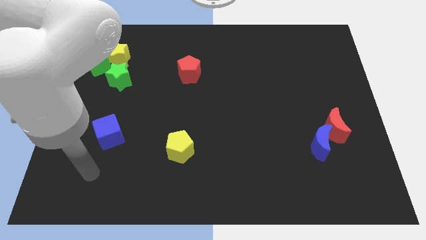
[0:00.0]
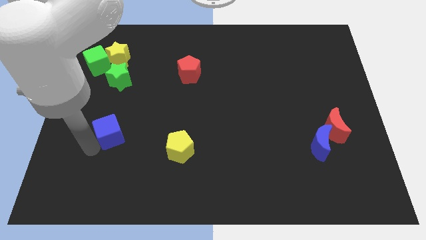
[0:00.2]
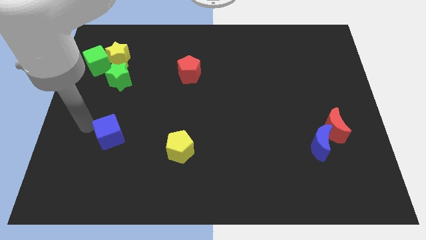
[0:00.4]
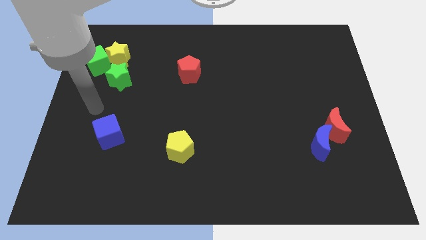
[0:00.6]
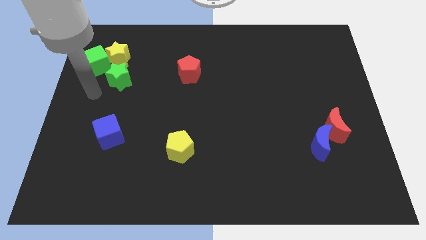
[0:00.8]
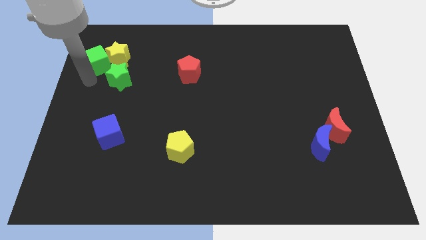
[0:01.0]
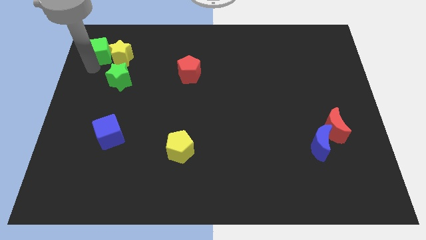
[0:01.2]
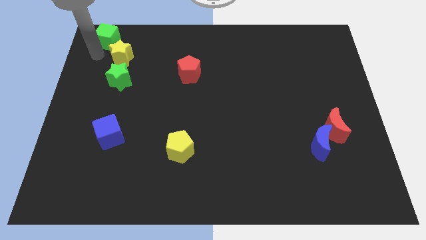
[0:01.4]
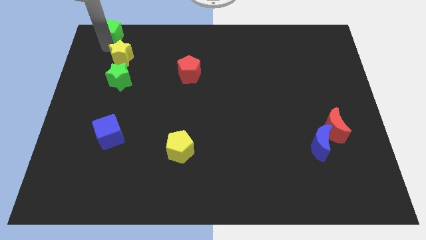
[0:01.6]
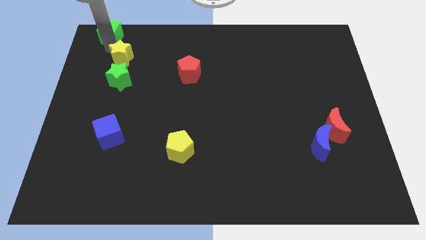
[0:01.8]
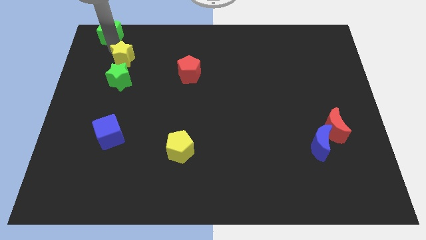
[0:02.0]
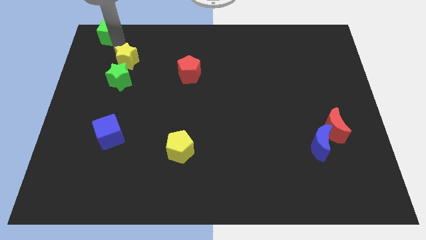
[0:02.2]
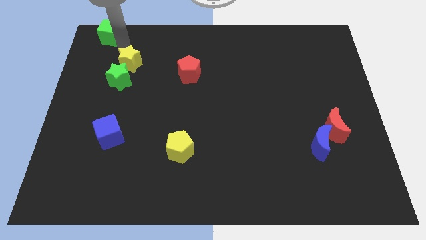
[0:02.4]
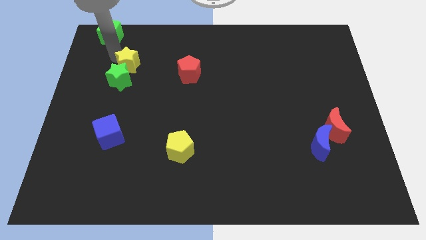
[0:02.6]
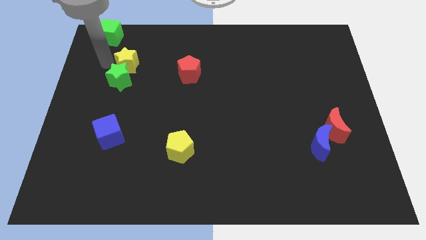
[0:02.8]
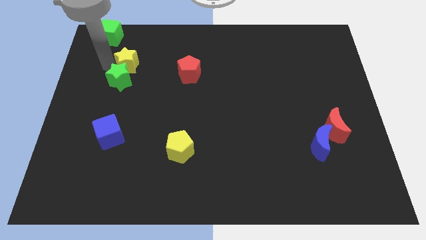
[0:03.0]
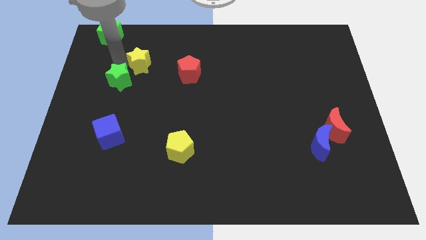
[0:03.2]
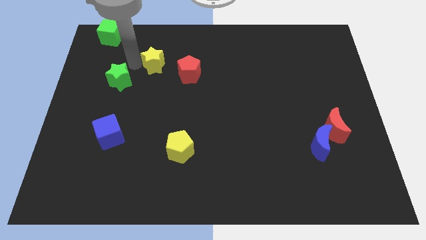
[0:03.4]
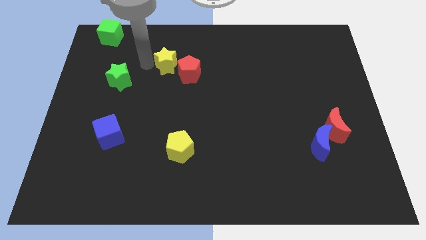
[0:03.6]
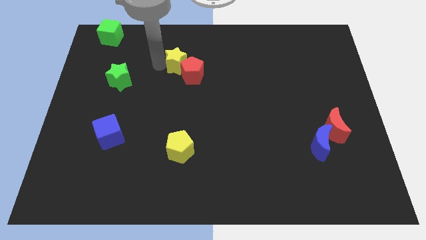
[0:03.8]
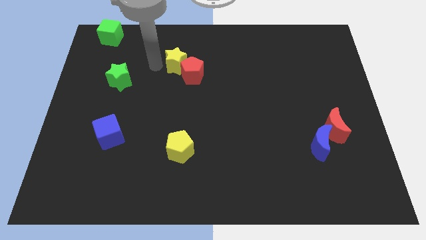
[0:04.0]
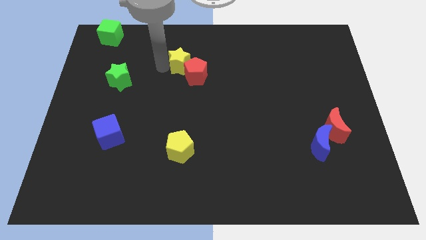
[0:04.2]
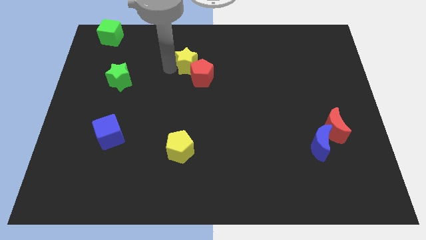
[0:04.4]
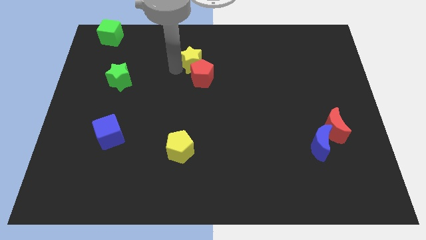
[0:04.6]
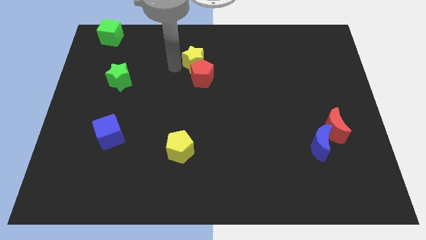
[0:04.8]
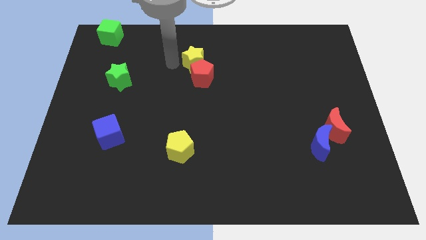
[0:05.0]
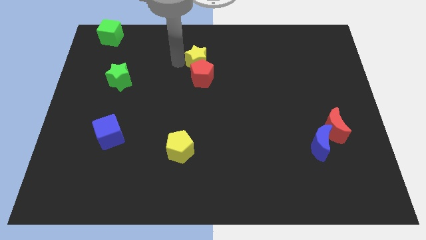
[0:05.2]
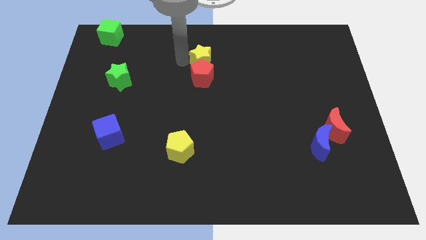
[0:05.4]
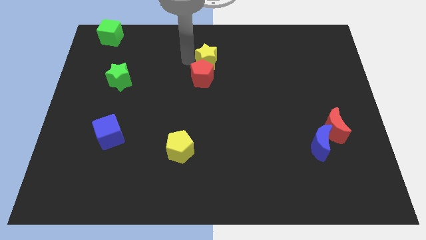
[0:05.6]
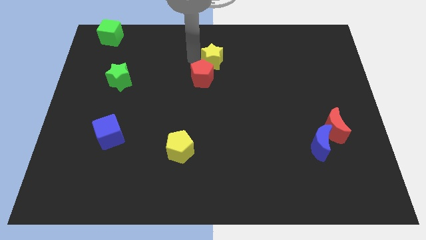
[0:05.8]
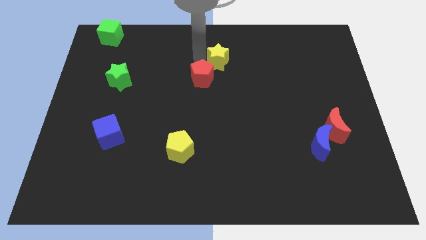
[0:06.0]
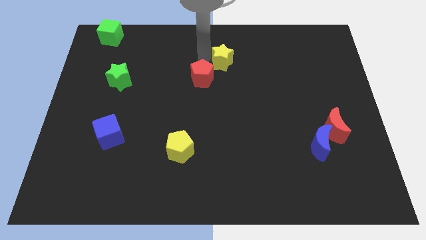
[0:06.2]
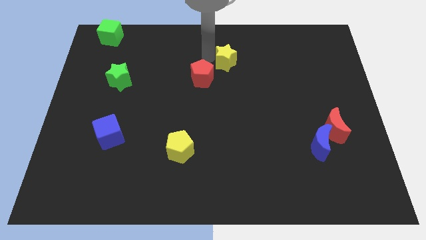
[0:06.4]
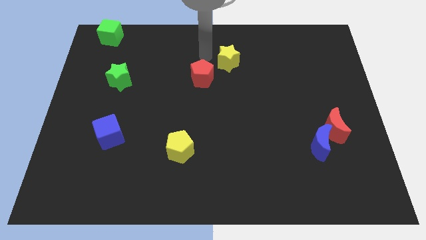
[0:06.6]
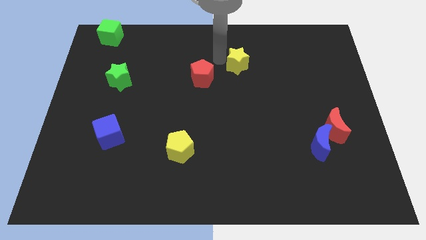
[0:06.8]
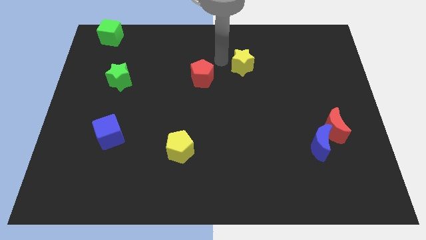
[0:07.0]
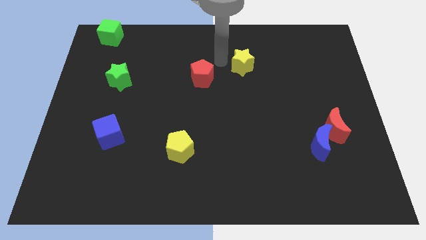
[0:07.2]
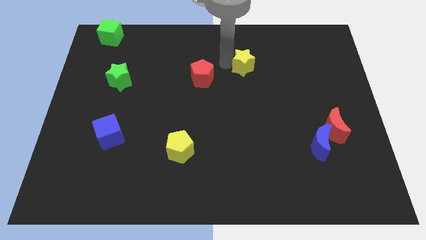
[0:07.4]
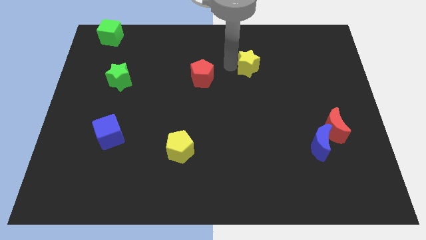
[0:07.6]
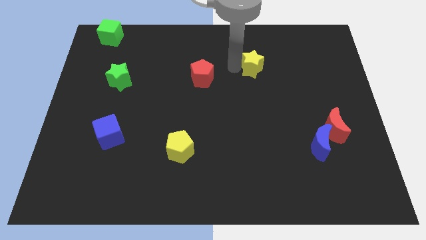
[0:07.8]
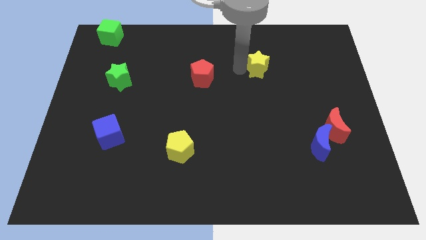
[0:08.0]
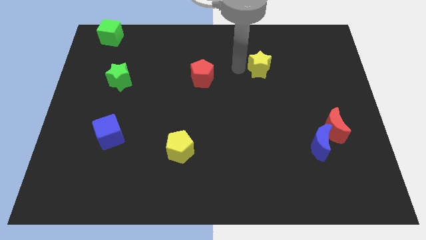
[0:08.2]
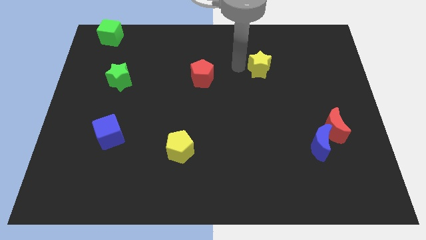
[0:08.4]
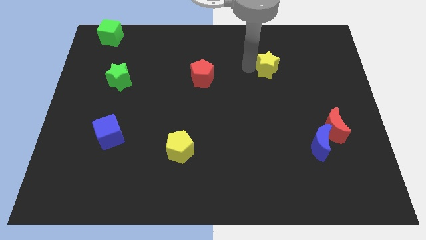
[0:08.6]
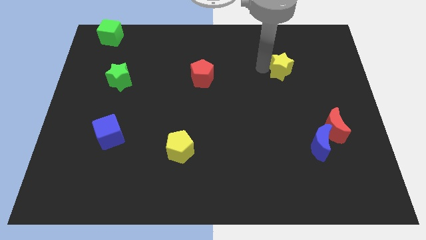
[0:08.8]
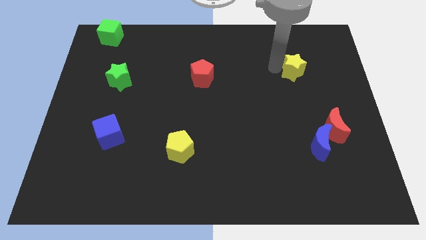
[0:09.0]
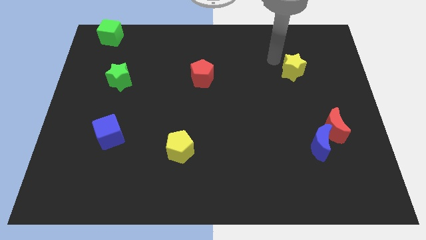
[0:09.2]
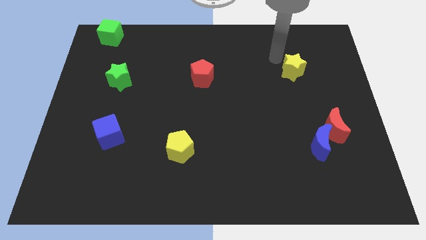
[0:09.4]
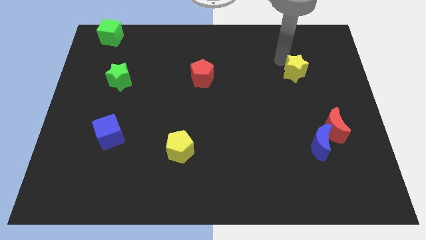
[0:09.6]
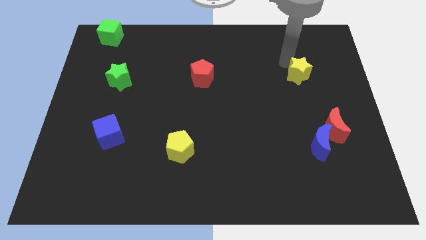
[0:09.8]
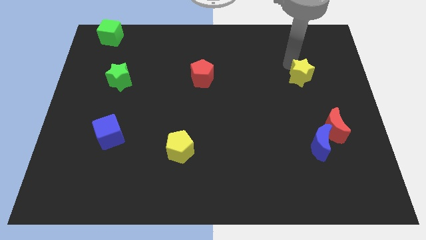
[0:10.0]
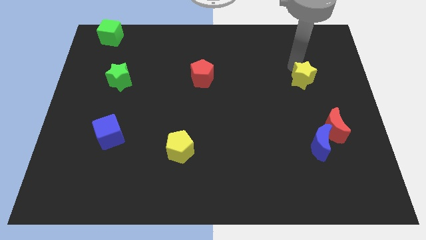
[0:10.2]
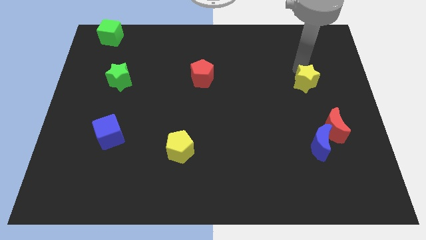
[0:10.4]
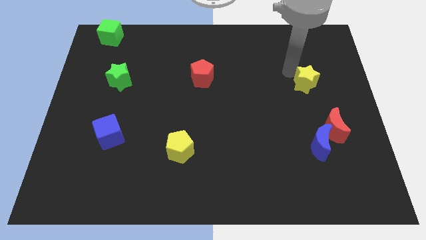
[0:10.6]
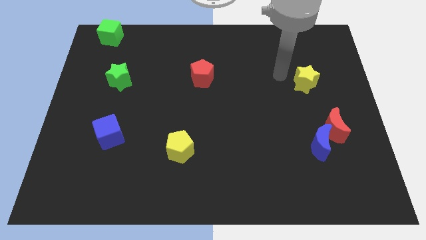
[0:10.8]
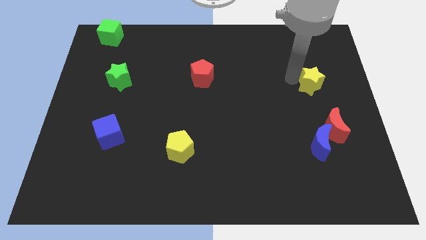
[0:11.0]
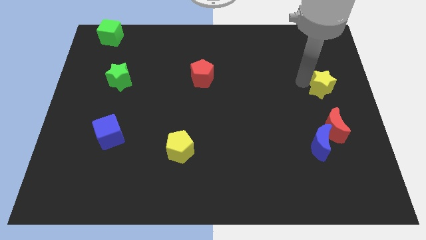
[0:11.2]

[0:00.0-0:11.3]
move the yellow star to the right side of the board

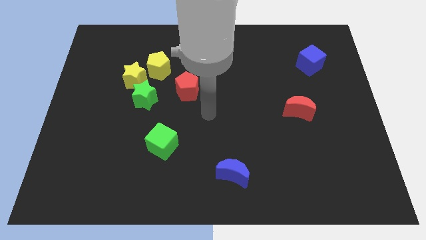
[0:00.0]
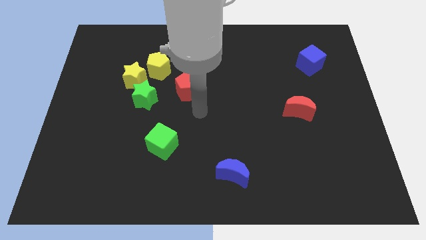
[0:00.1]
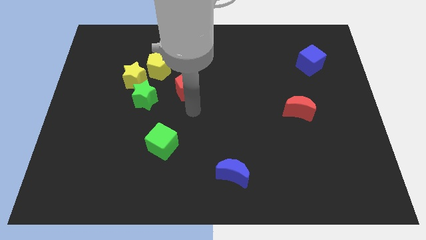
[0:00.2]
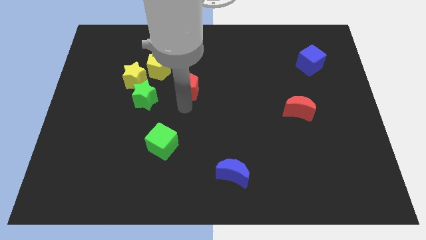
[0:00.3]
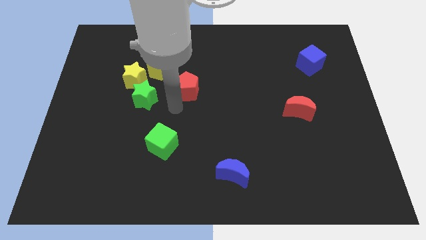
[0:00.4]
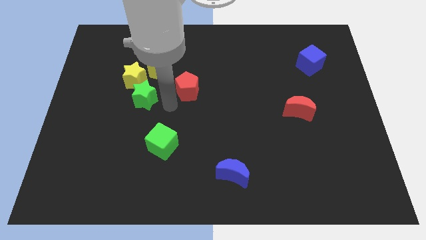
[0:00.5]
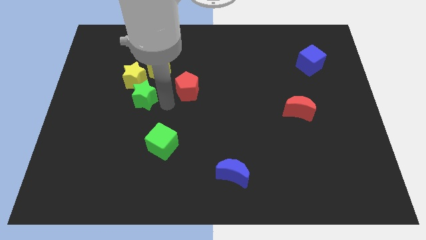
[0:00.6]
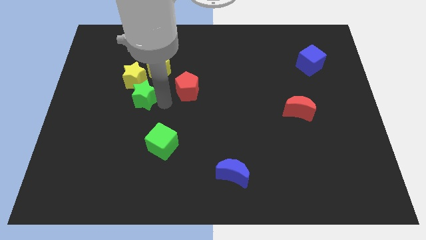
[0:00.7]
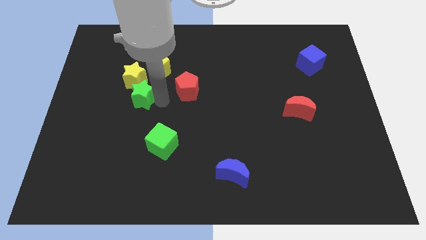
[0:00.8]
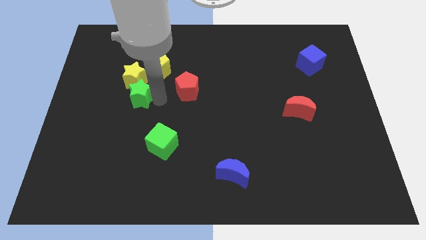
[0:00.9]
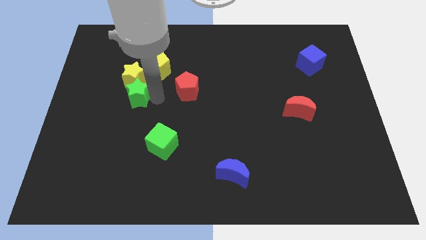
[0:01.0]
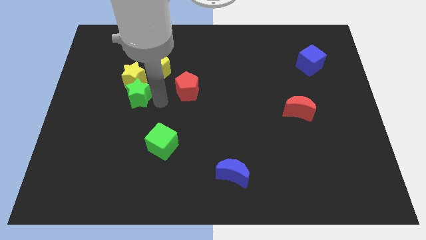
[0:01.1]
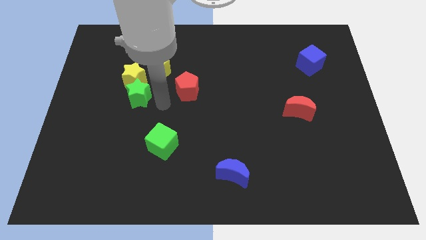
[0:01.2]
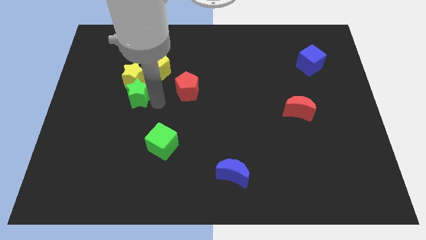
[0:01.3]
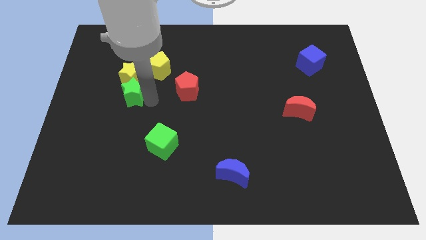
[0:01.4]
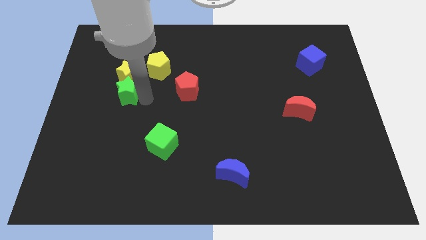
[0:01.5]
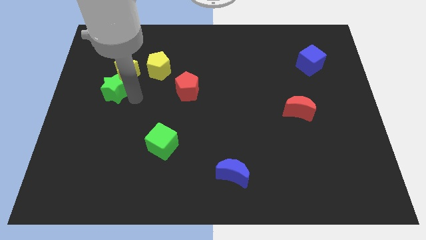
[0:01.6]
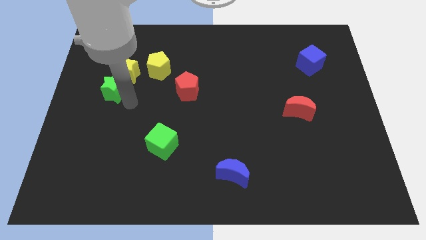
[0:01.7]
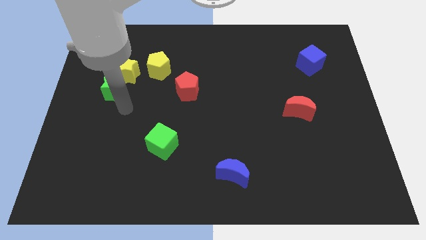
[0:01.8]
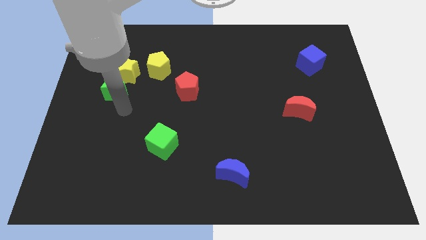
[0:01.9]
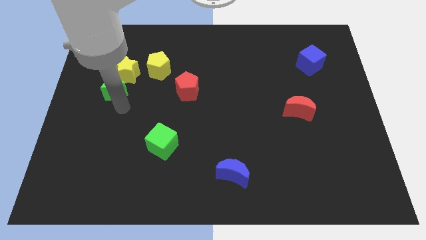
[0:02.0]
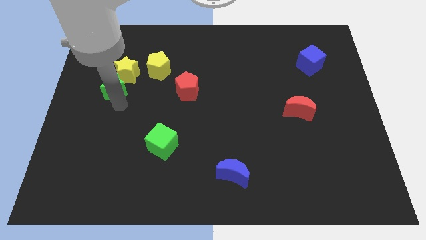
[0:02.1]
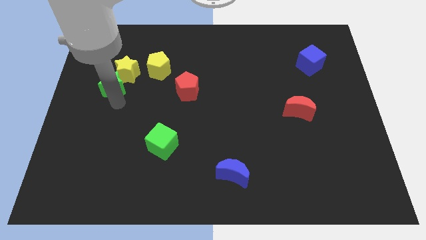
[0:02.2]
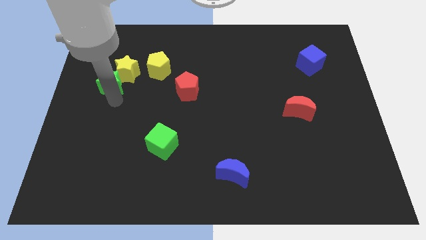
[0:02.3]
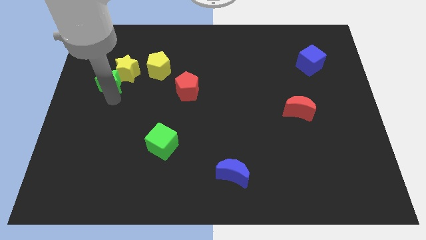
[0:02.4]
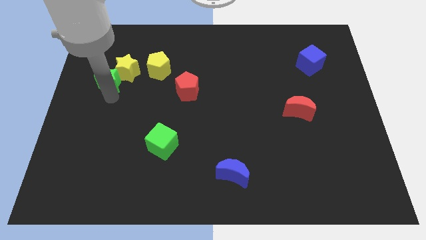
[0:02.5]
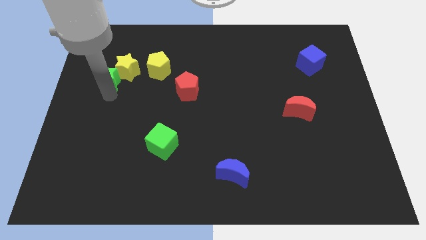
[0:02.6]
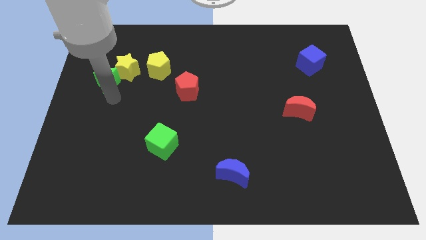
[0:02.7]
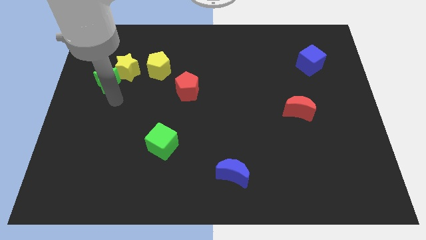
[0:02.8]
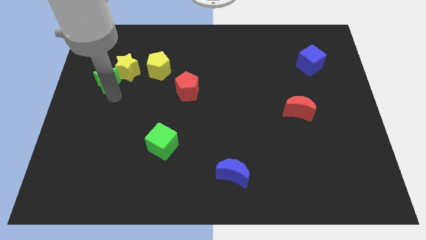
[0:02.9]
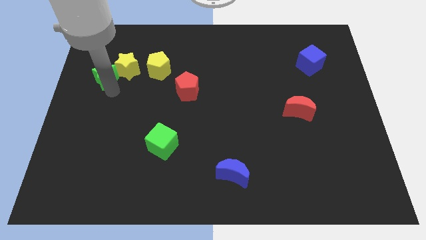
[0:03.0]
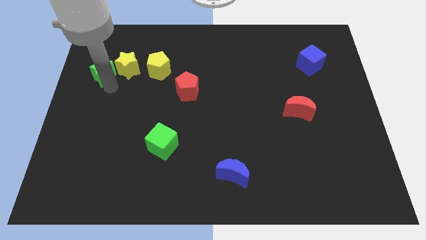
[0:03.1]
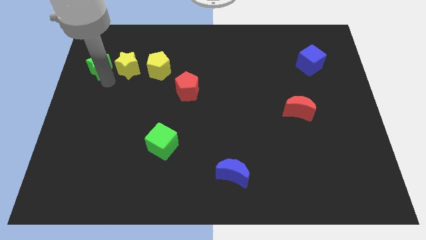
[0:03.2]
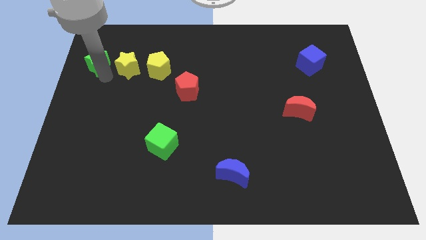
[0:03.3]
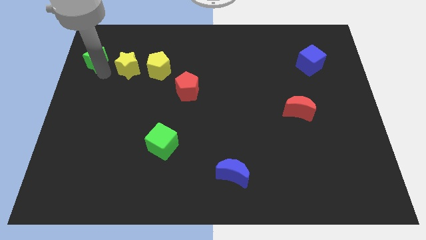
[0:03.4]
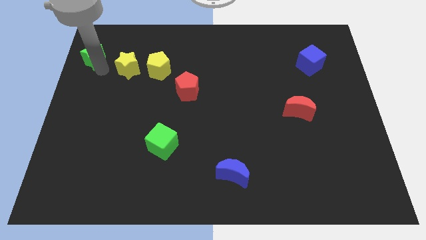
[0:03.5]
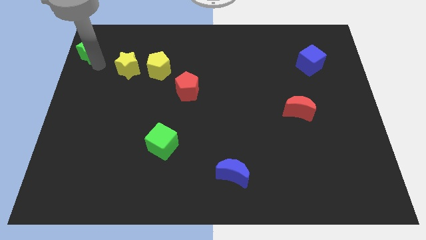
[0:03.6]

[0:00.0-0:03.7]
slide the green star to the upper left corner
